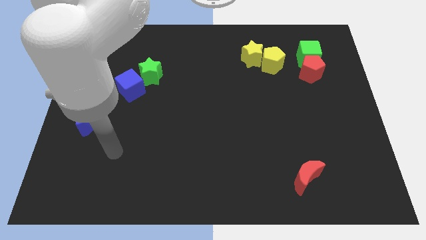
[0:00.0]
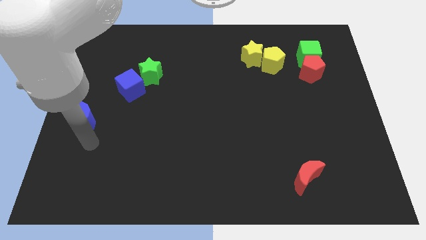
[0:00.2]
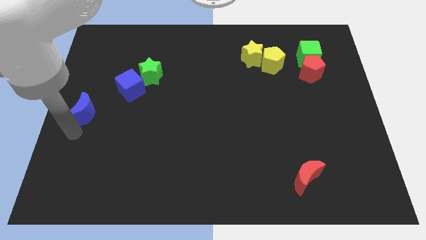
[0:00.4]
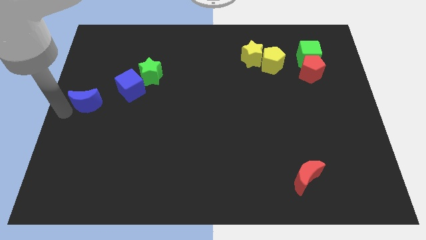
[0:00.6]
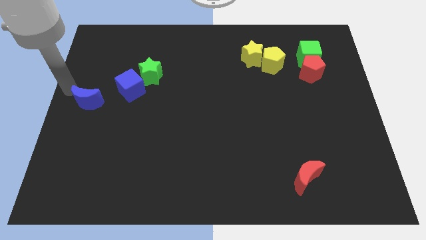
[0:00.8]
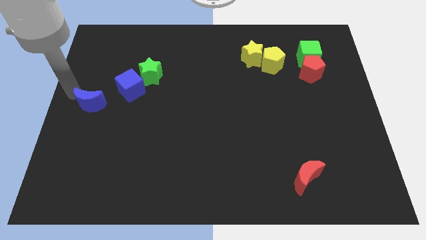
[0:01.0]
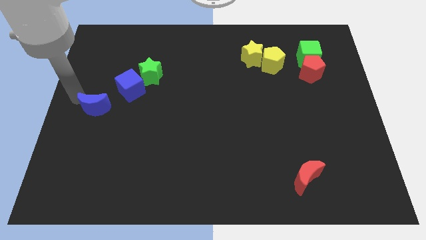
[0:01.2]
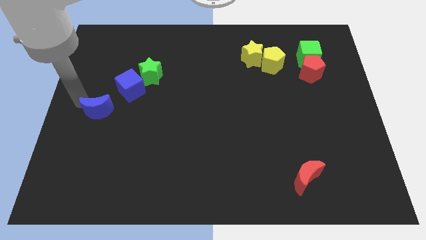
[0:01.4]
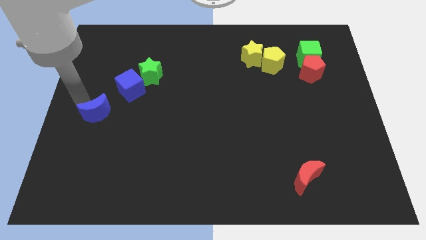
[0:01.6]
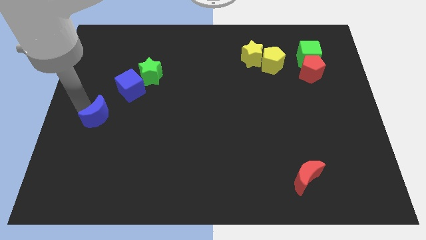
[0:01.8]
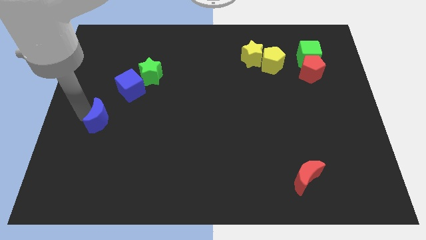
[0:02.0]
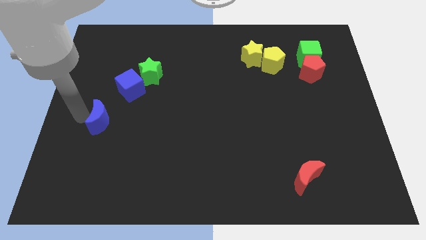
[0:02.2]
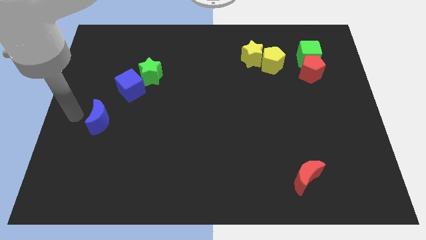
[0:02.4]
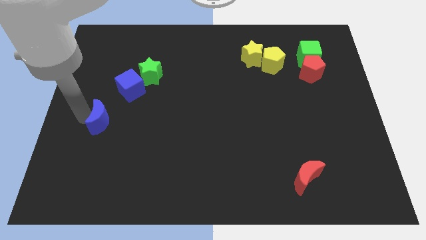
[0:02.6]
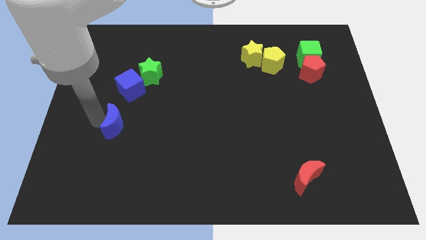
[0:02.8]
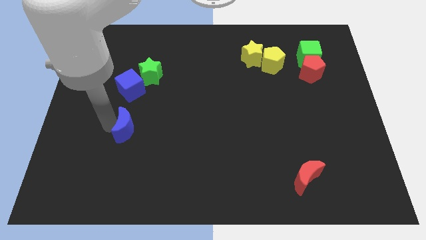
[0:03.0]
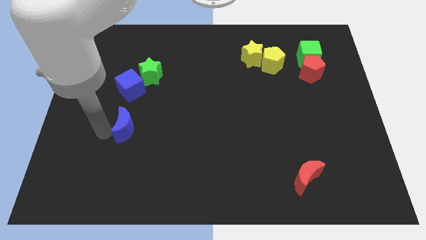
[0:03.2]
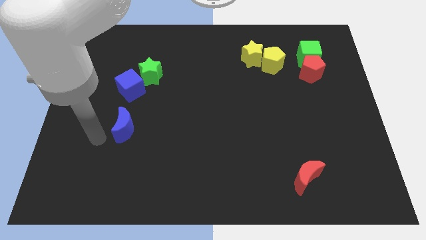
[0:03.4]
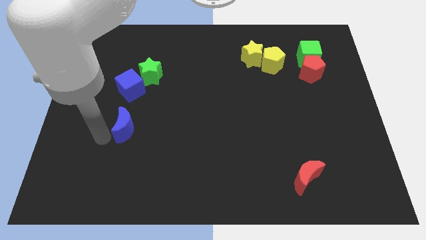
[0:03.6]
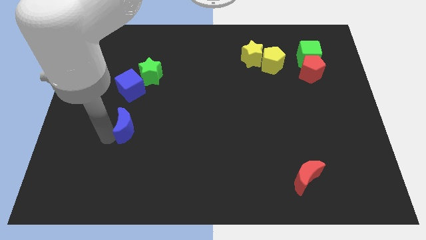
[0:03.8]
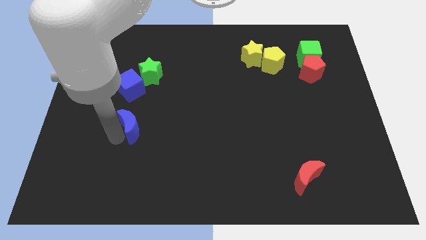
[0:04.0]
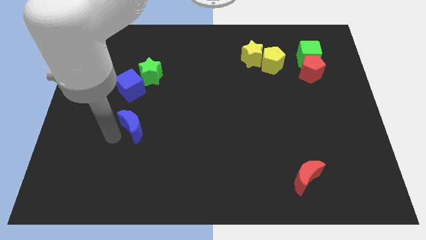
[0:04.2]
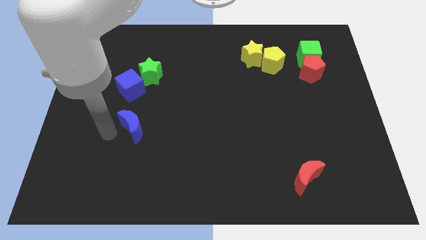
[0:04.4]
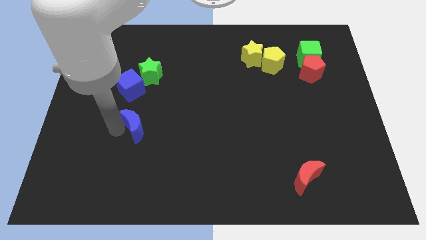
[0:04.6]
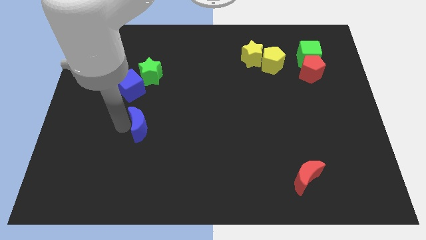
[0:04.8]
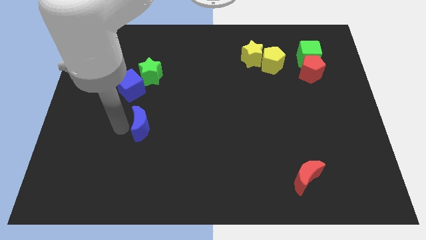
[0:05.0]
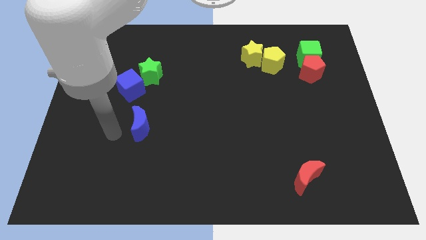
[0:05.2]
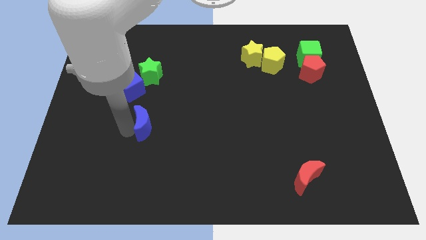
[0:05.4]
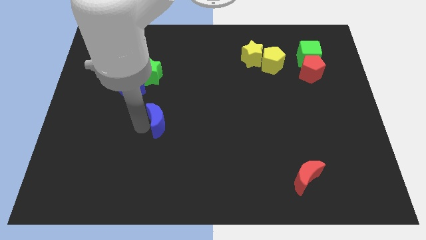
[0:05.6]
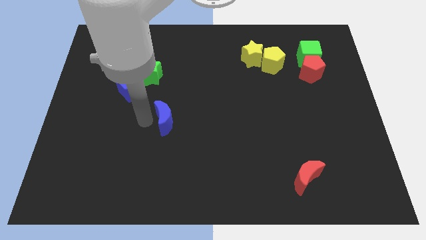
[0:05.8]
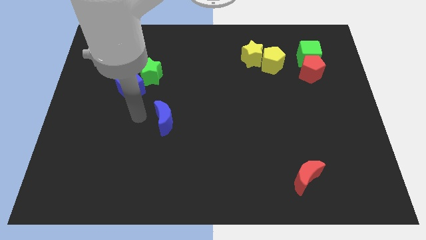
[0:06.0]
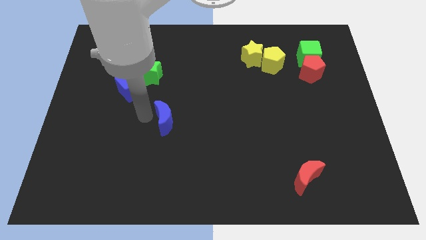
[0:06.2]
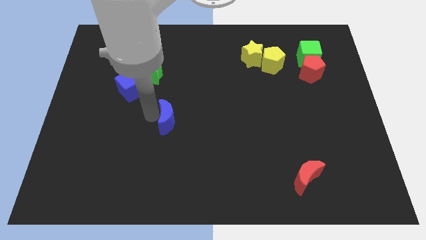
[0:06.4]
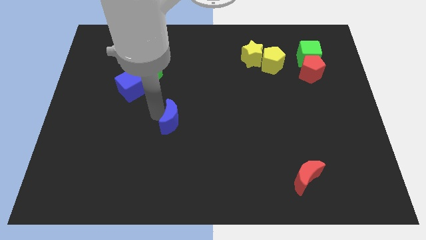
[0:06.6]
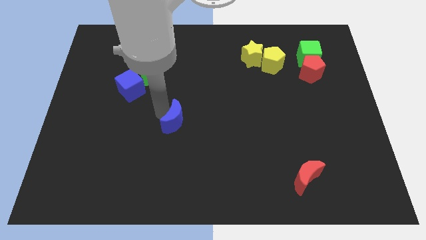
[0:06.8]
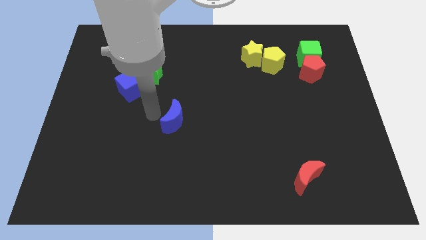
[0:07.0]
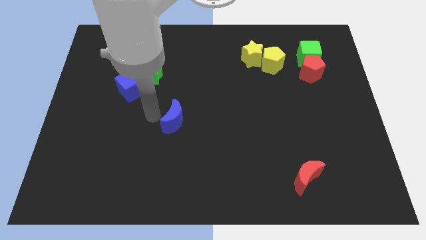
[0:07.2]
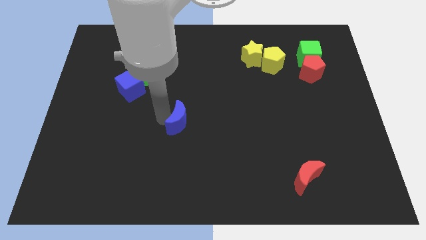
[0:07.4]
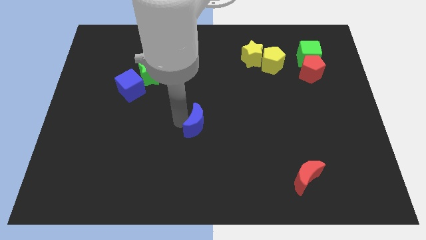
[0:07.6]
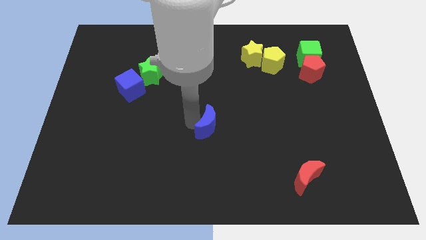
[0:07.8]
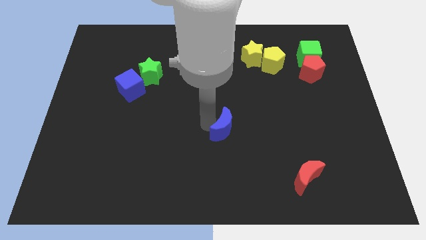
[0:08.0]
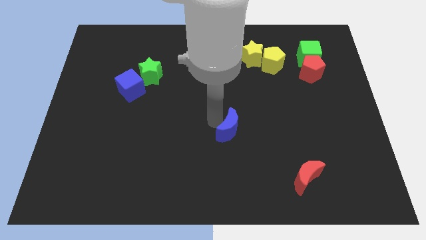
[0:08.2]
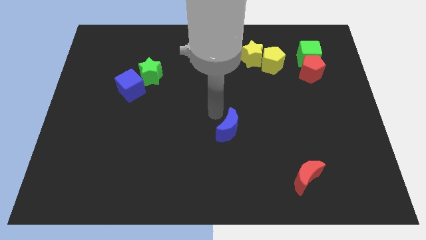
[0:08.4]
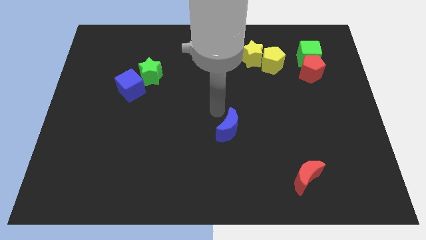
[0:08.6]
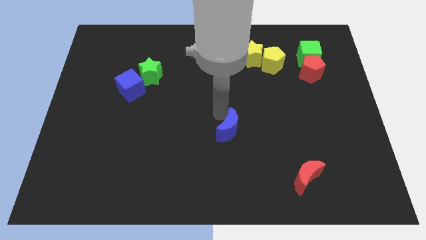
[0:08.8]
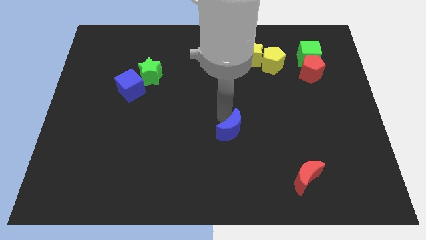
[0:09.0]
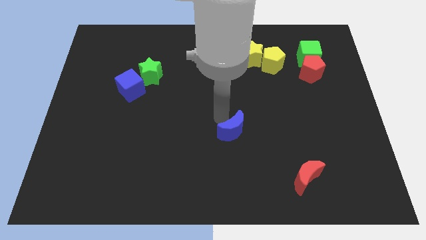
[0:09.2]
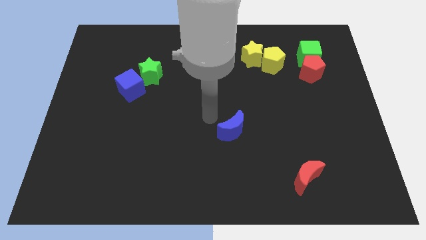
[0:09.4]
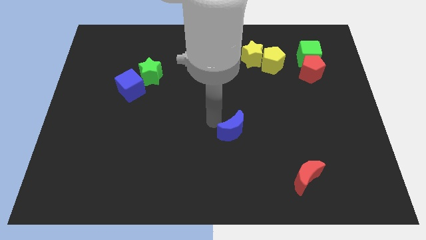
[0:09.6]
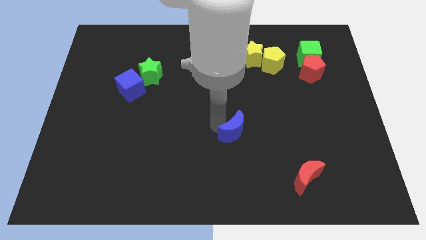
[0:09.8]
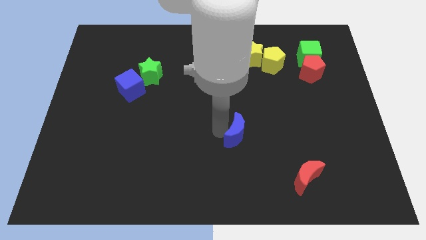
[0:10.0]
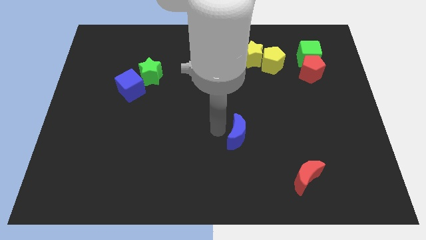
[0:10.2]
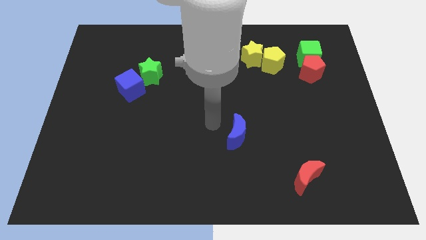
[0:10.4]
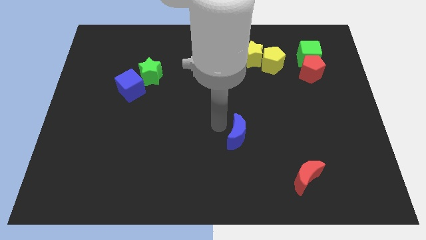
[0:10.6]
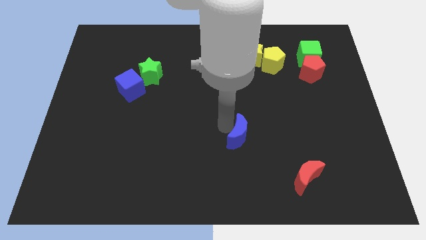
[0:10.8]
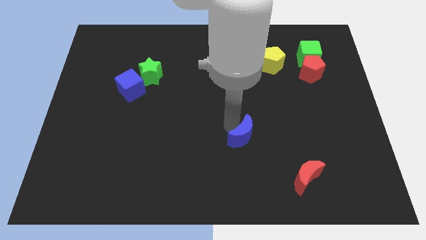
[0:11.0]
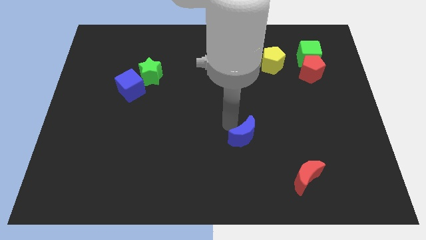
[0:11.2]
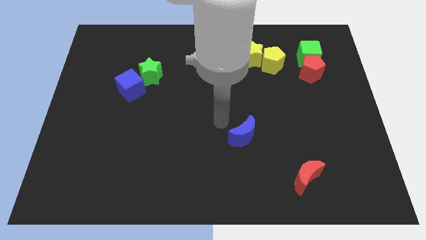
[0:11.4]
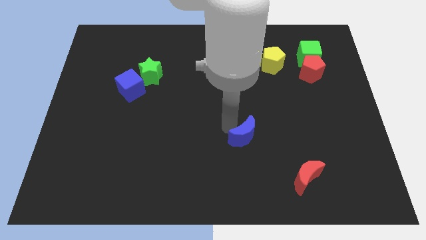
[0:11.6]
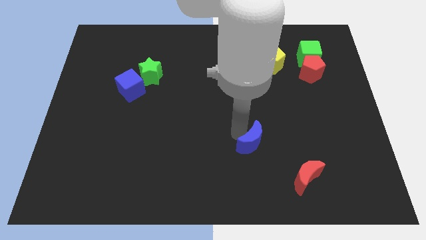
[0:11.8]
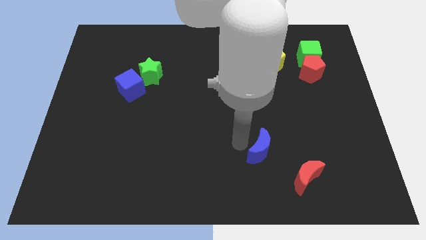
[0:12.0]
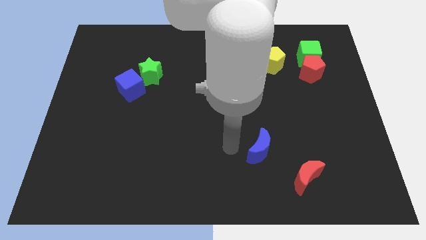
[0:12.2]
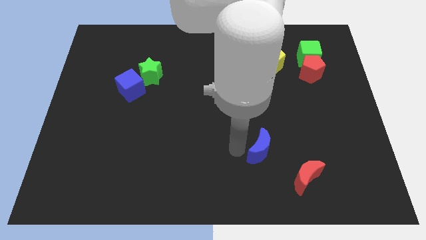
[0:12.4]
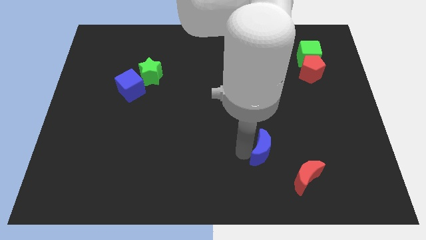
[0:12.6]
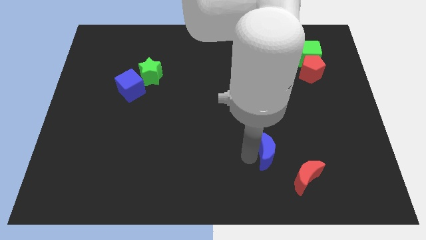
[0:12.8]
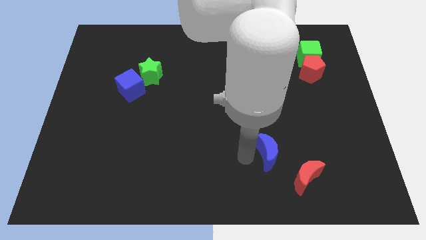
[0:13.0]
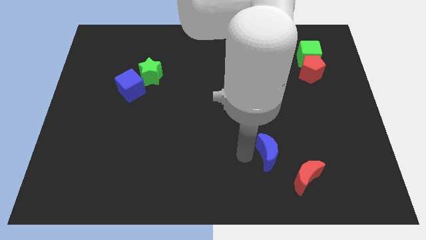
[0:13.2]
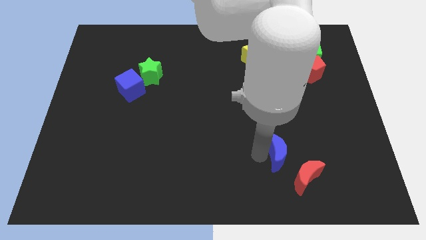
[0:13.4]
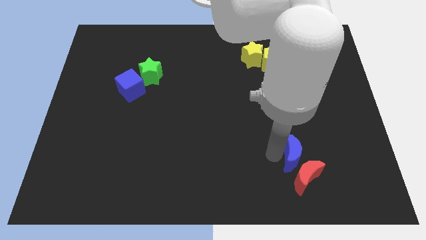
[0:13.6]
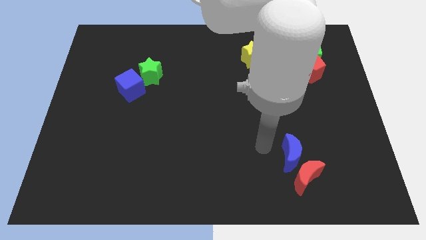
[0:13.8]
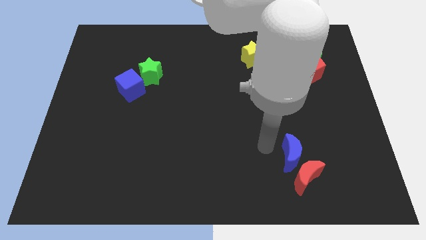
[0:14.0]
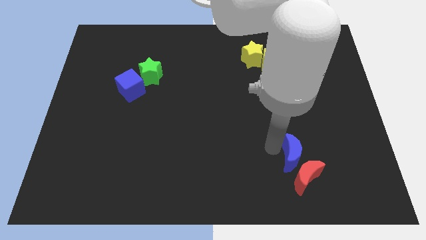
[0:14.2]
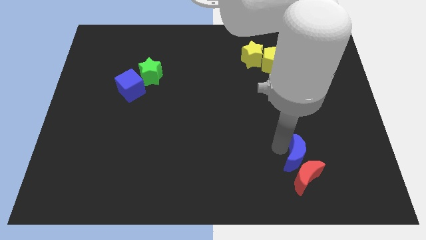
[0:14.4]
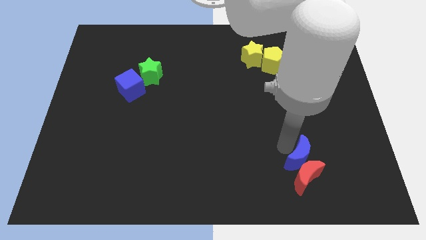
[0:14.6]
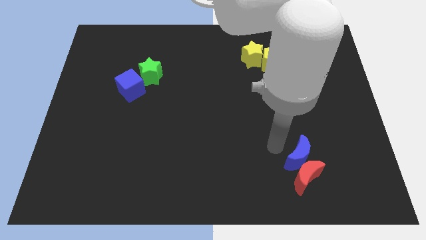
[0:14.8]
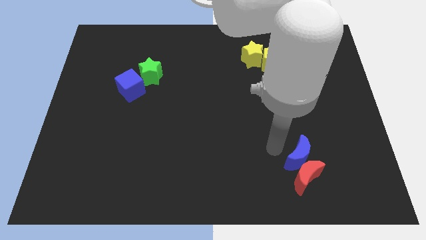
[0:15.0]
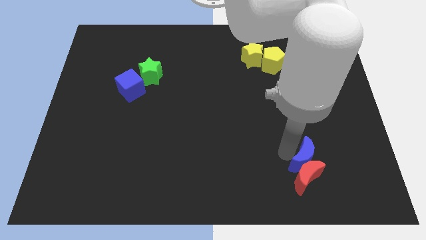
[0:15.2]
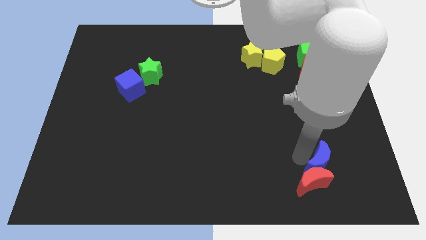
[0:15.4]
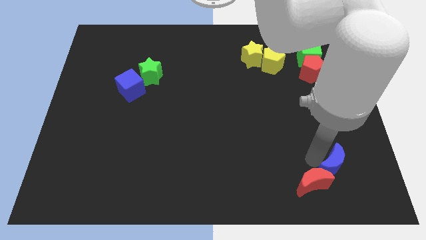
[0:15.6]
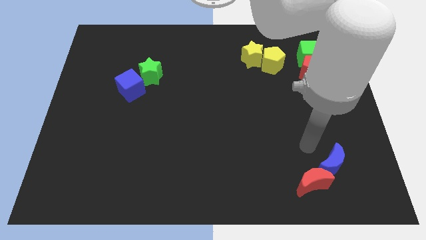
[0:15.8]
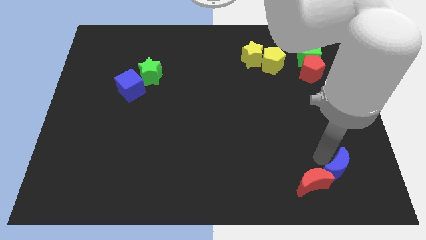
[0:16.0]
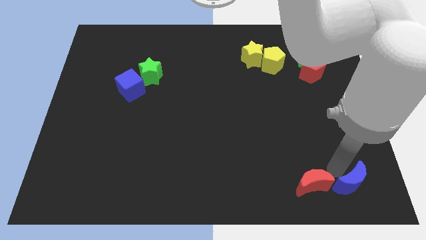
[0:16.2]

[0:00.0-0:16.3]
move the blue moon to the bottom right of the board
